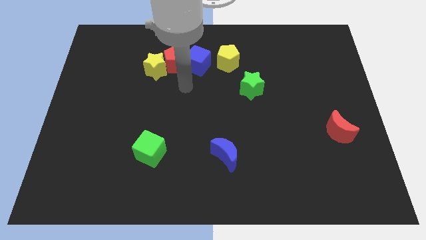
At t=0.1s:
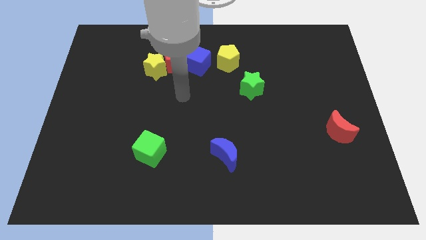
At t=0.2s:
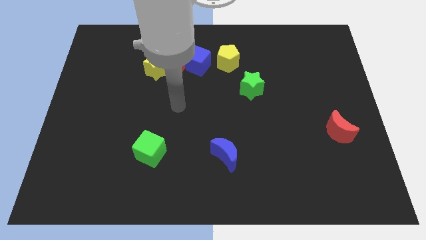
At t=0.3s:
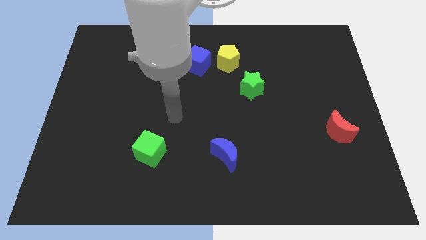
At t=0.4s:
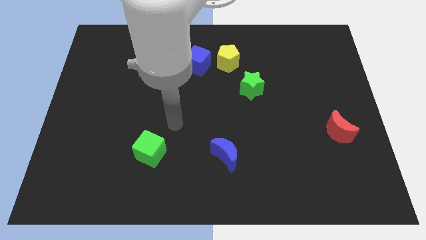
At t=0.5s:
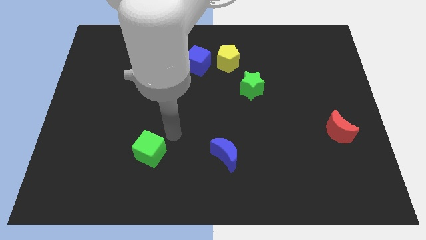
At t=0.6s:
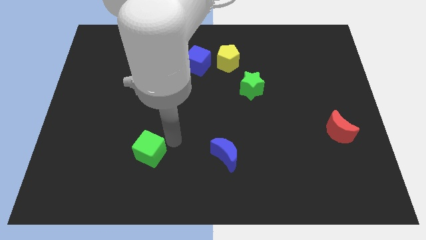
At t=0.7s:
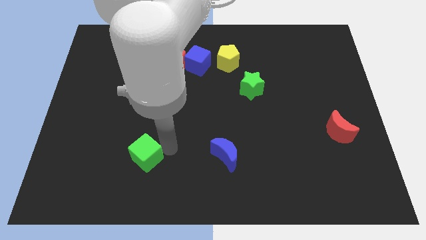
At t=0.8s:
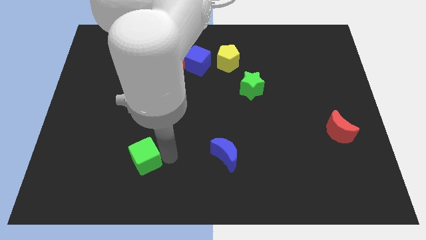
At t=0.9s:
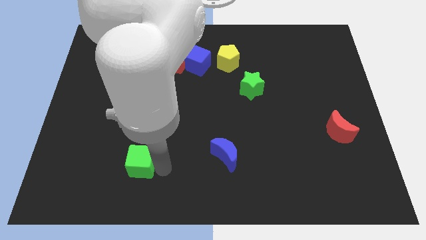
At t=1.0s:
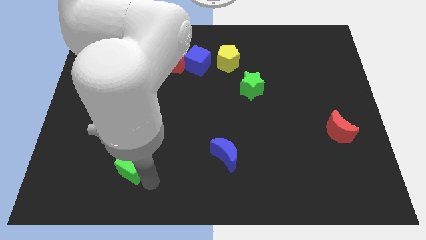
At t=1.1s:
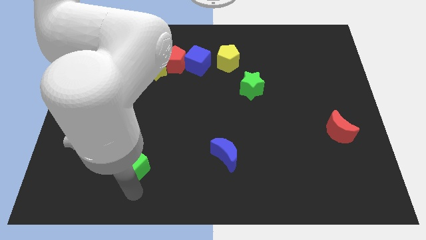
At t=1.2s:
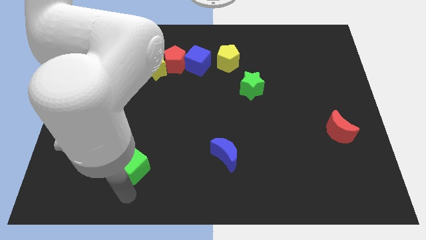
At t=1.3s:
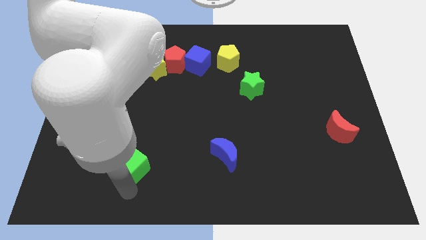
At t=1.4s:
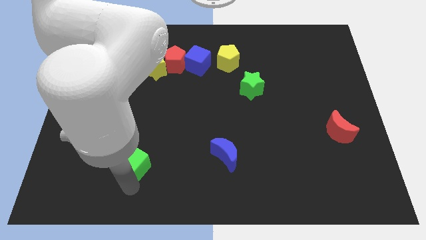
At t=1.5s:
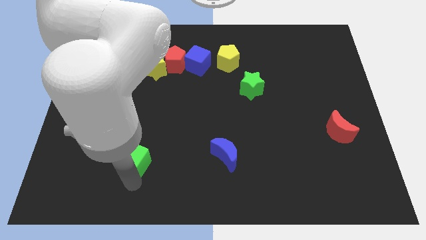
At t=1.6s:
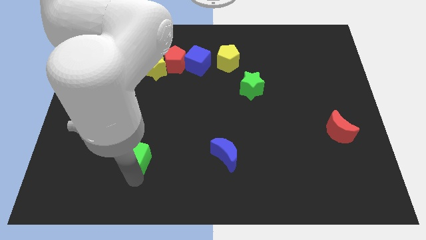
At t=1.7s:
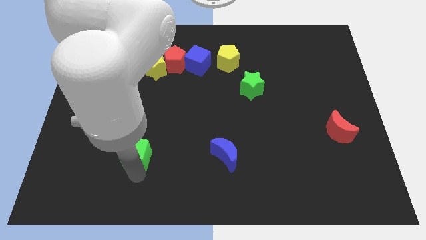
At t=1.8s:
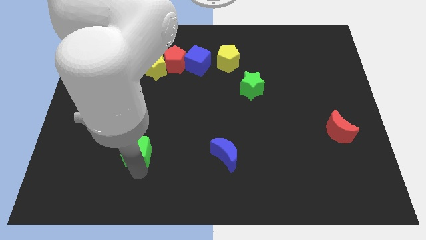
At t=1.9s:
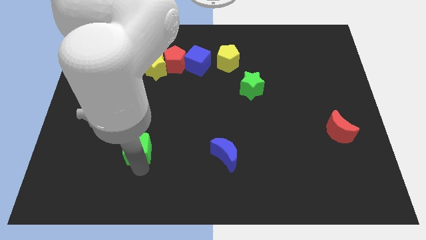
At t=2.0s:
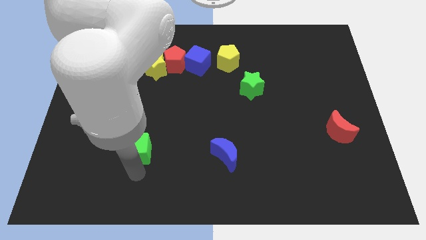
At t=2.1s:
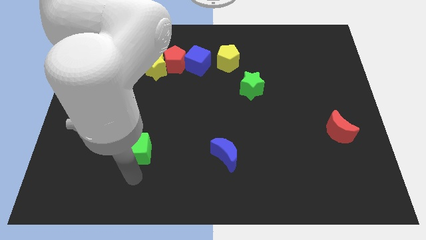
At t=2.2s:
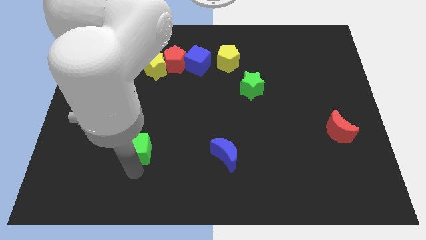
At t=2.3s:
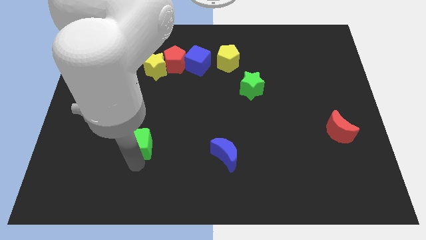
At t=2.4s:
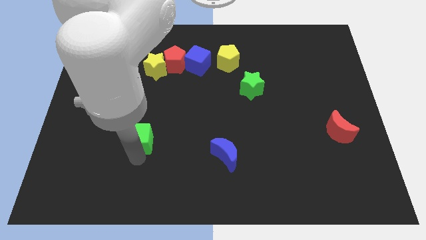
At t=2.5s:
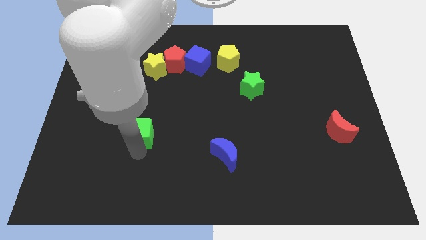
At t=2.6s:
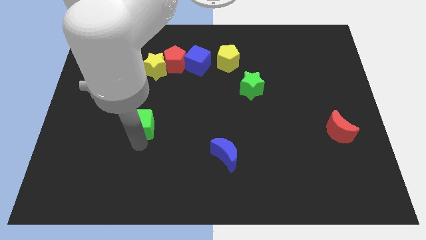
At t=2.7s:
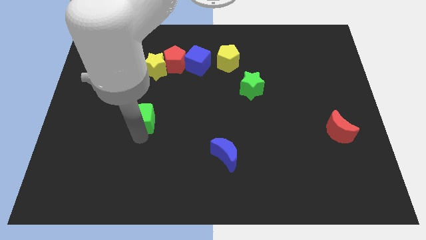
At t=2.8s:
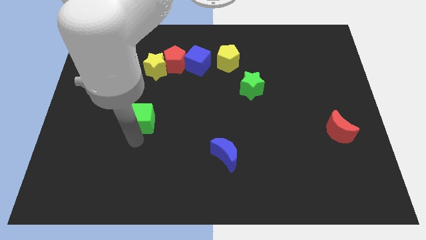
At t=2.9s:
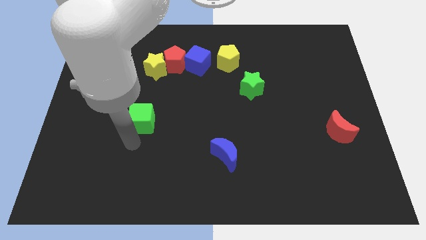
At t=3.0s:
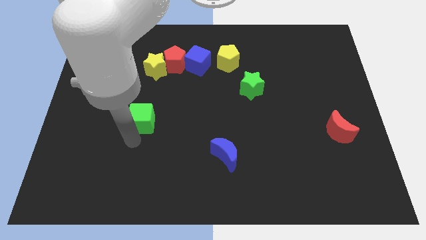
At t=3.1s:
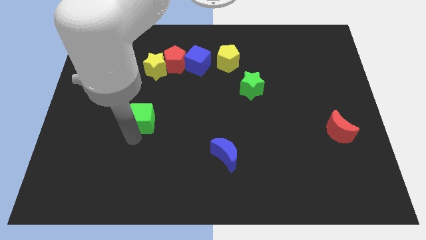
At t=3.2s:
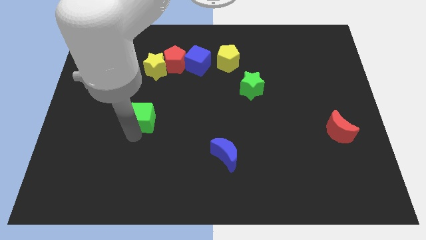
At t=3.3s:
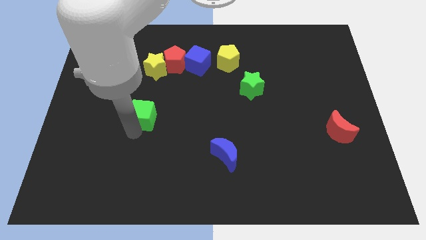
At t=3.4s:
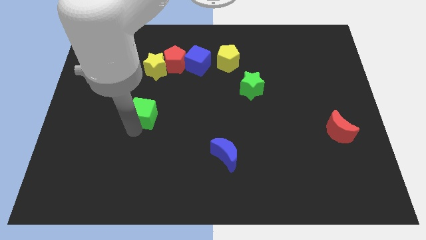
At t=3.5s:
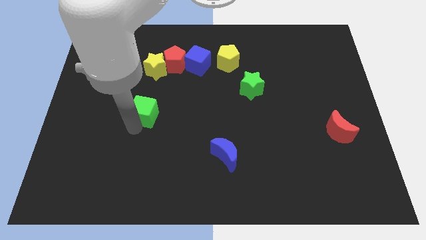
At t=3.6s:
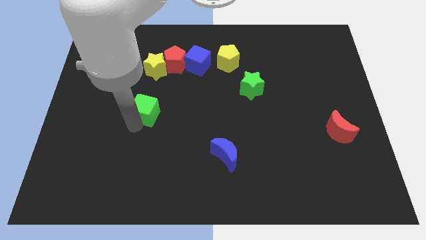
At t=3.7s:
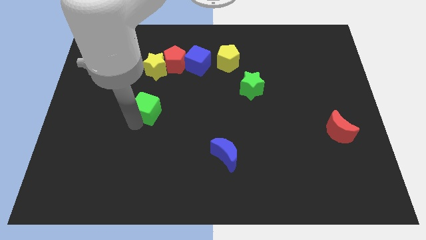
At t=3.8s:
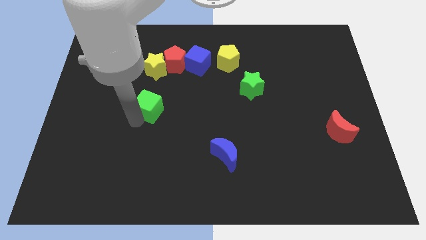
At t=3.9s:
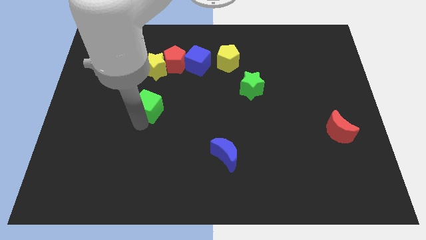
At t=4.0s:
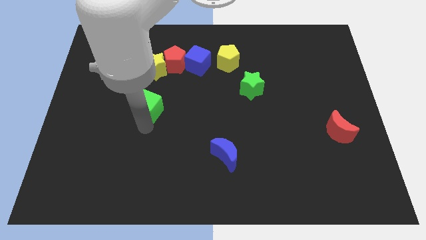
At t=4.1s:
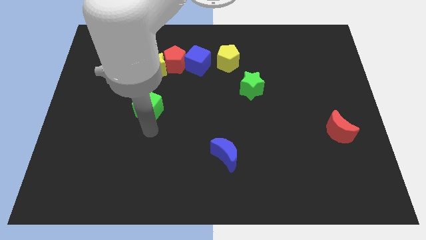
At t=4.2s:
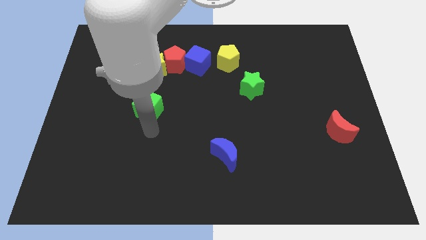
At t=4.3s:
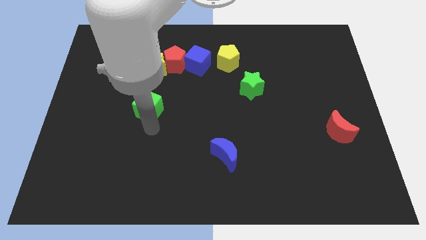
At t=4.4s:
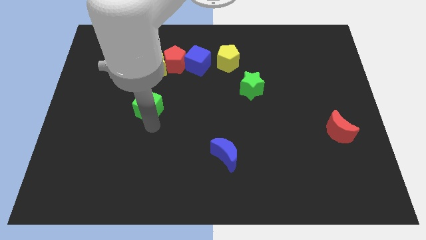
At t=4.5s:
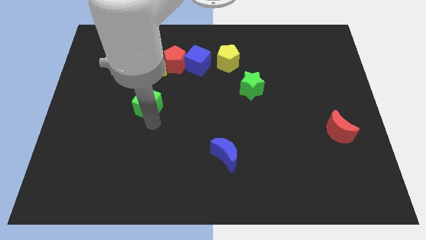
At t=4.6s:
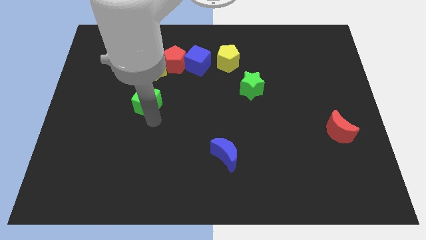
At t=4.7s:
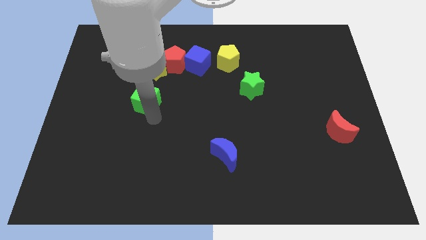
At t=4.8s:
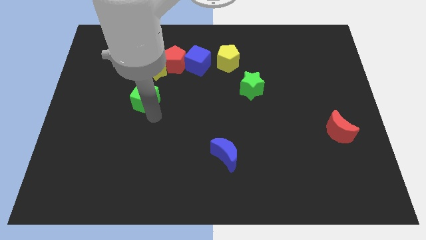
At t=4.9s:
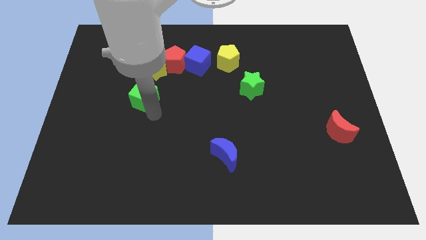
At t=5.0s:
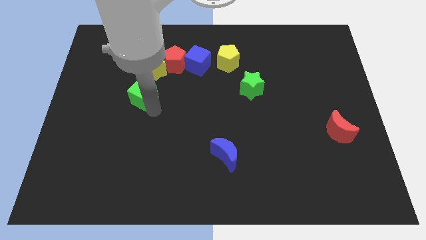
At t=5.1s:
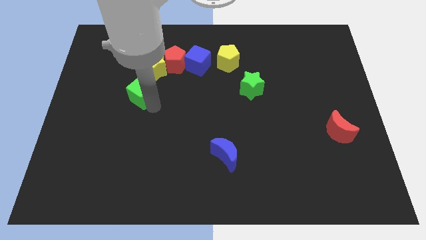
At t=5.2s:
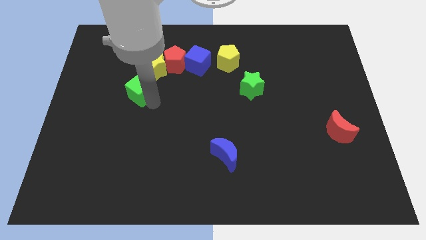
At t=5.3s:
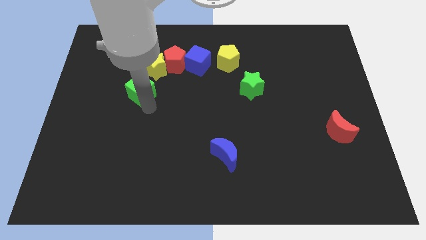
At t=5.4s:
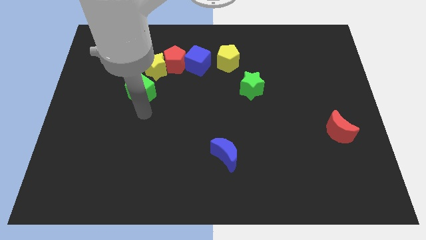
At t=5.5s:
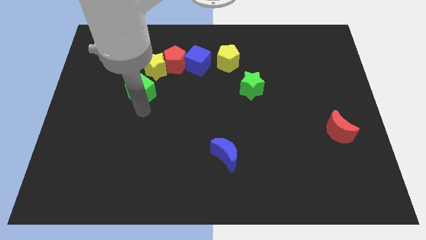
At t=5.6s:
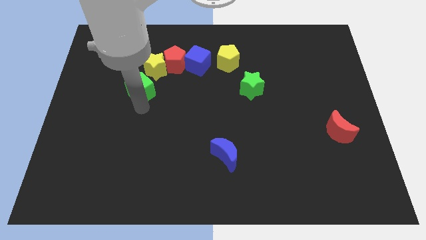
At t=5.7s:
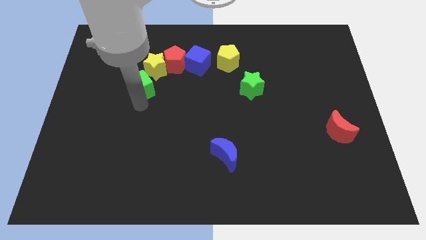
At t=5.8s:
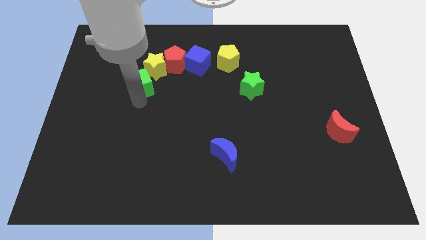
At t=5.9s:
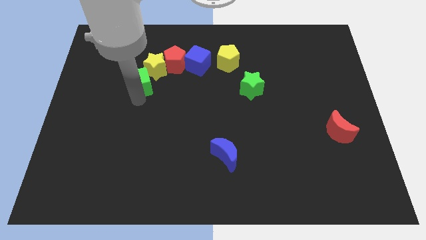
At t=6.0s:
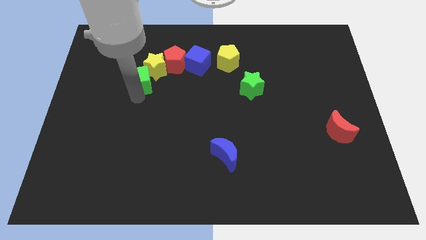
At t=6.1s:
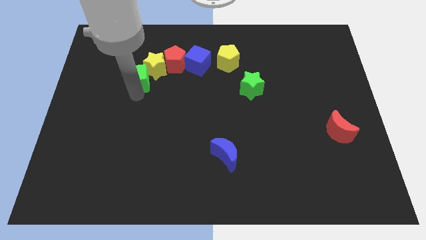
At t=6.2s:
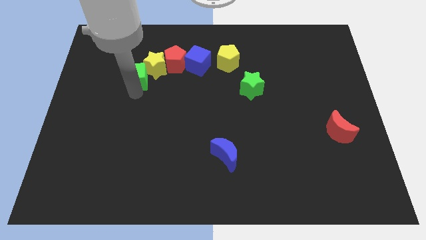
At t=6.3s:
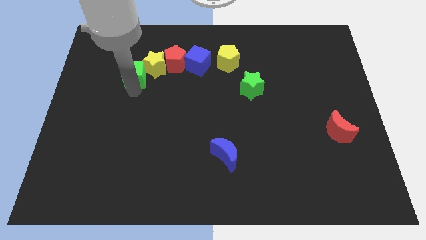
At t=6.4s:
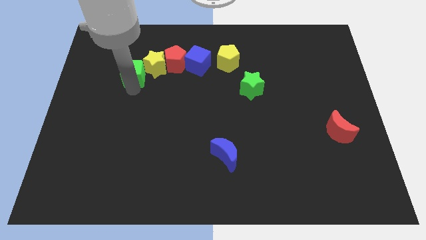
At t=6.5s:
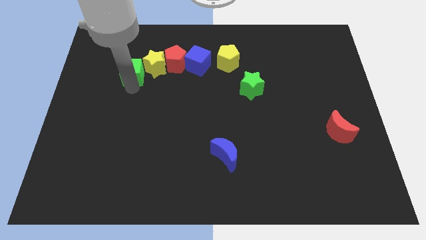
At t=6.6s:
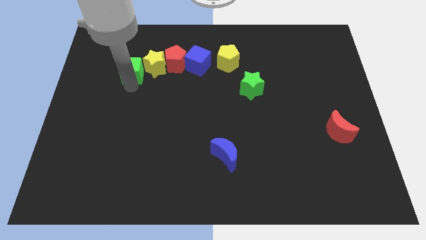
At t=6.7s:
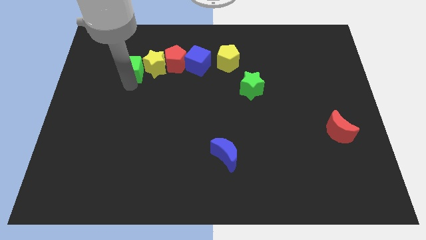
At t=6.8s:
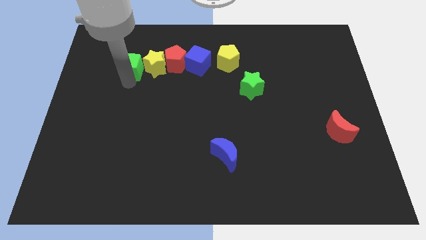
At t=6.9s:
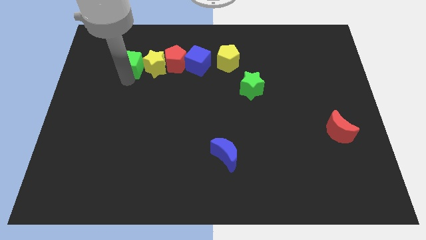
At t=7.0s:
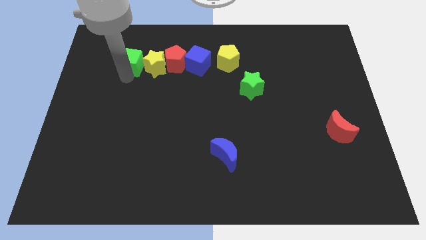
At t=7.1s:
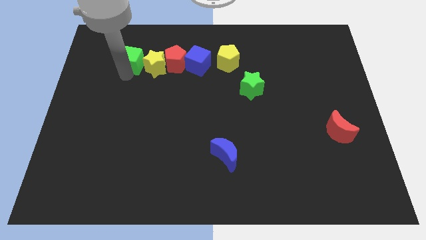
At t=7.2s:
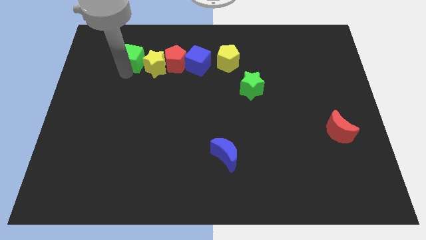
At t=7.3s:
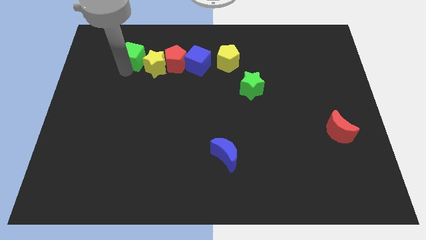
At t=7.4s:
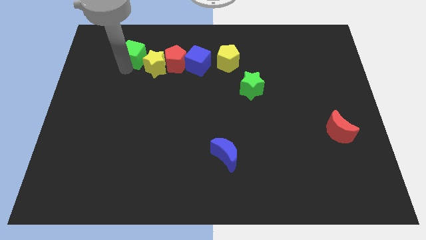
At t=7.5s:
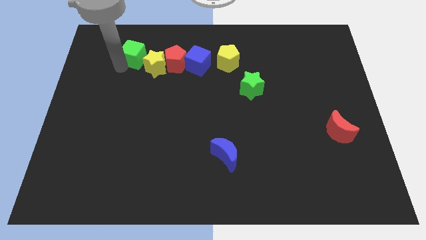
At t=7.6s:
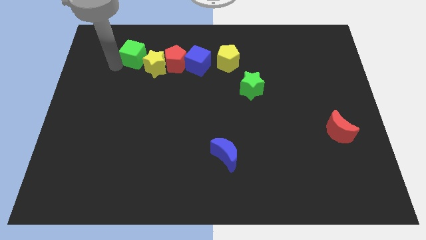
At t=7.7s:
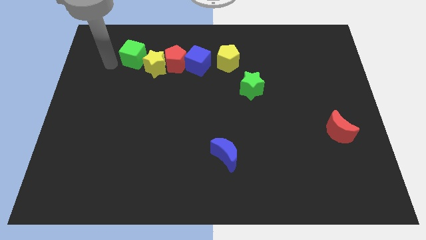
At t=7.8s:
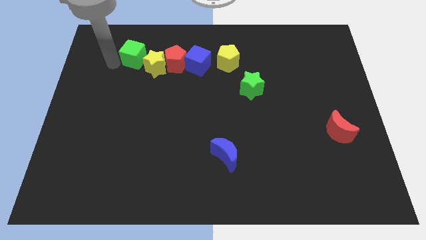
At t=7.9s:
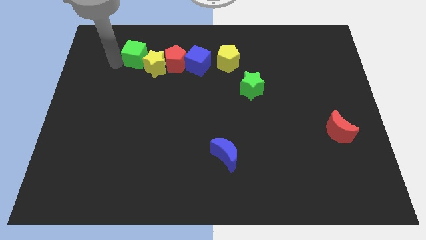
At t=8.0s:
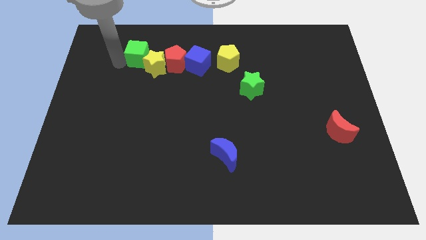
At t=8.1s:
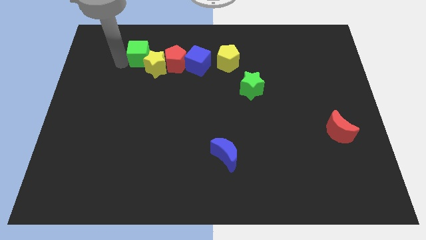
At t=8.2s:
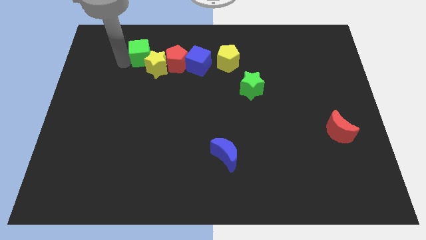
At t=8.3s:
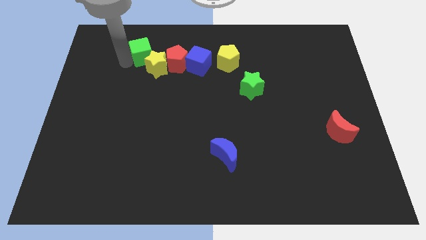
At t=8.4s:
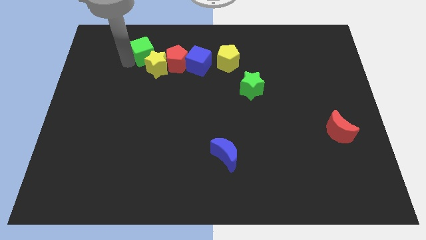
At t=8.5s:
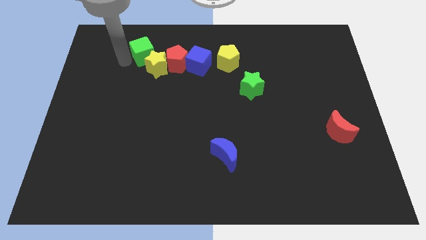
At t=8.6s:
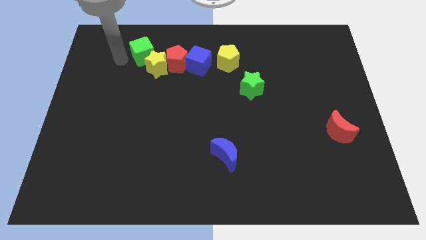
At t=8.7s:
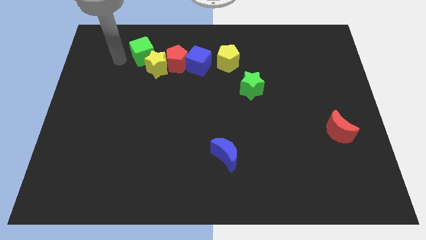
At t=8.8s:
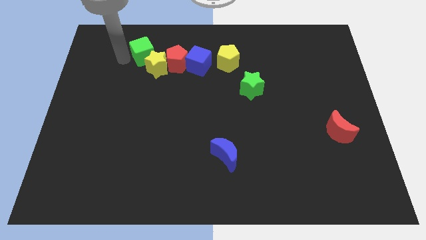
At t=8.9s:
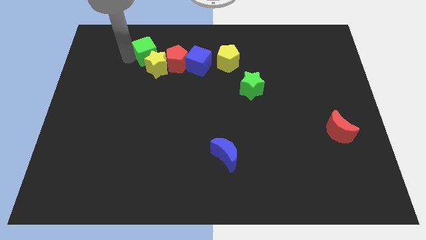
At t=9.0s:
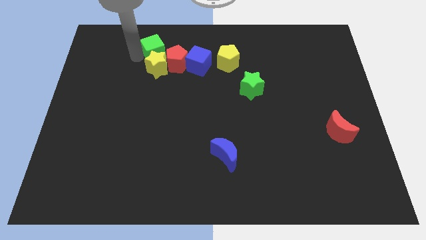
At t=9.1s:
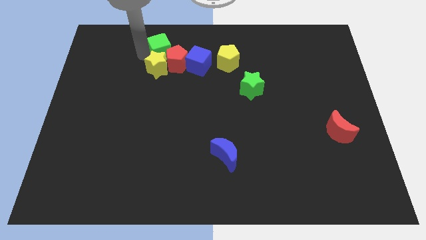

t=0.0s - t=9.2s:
move the green cube diagonally up and to the right of the yellow star
